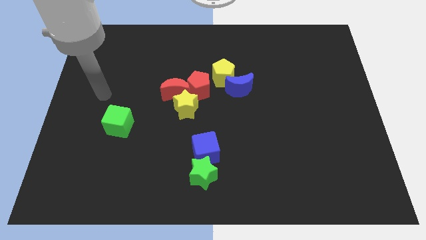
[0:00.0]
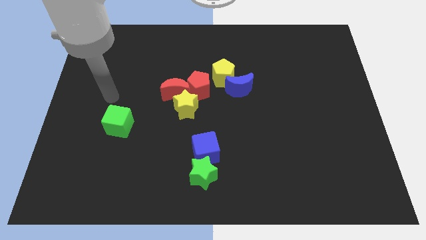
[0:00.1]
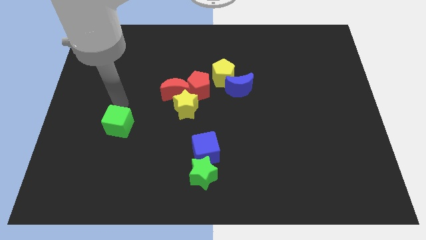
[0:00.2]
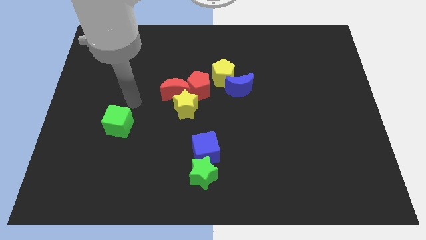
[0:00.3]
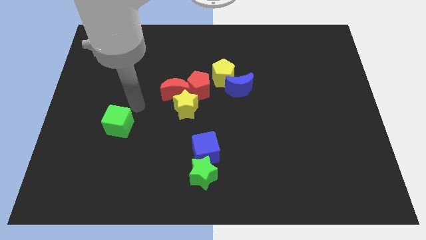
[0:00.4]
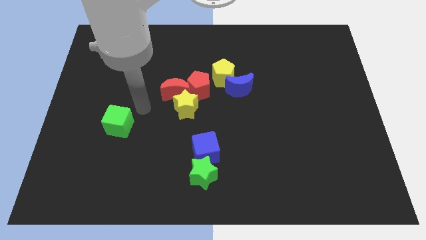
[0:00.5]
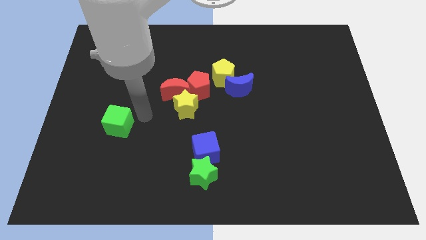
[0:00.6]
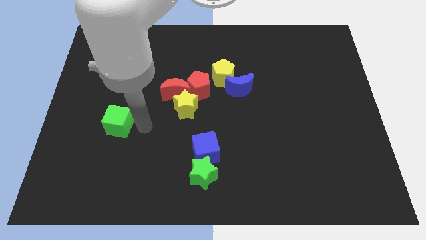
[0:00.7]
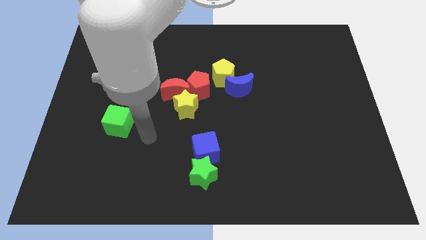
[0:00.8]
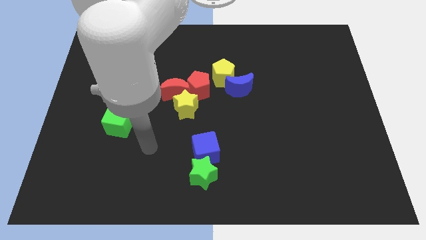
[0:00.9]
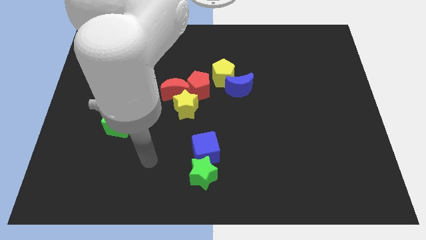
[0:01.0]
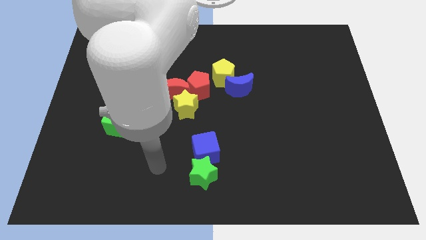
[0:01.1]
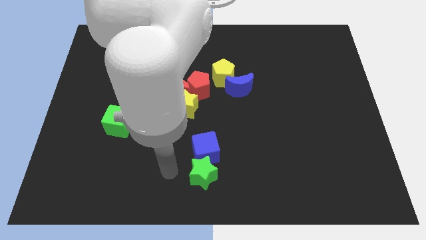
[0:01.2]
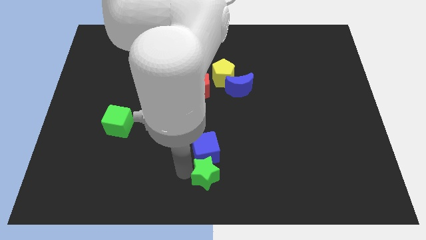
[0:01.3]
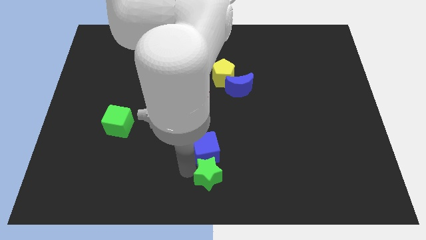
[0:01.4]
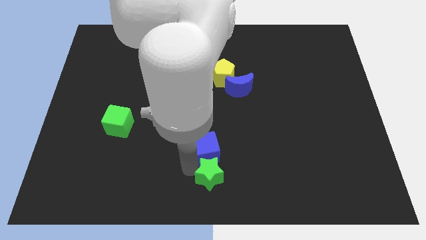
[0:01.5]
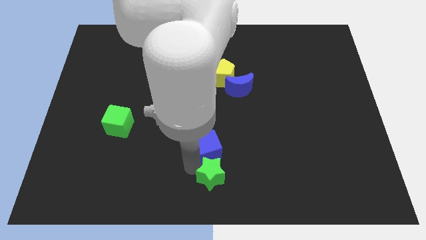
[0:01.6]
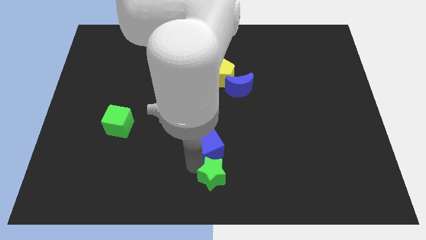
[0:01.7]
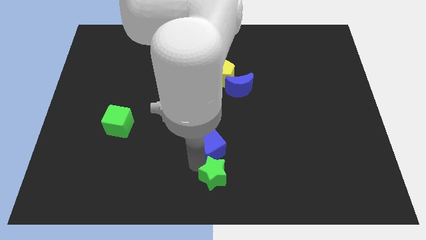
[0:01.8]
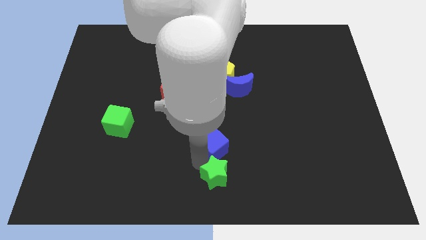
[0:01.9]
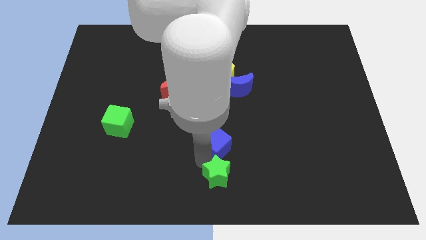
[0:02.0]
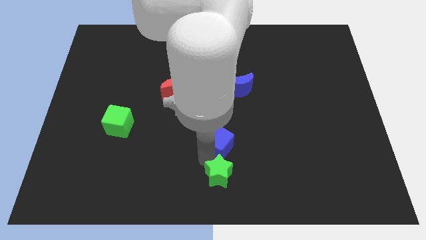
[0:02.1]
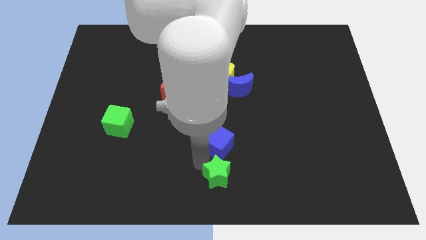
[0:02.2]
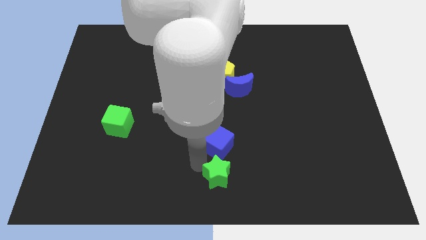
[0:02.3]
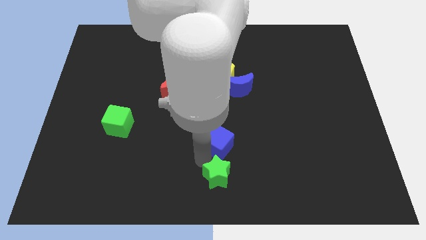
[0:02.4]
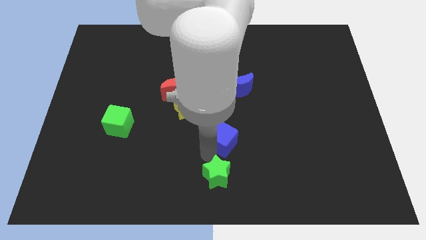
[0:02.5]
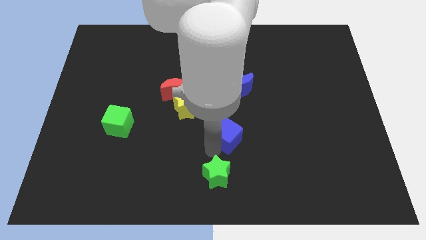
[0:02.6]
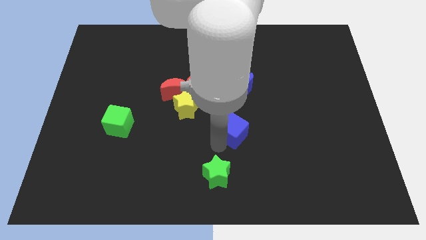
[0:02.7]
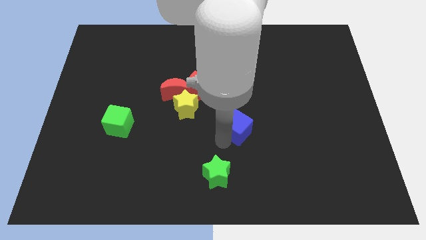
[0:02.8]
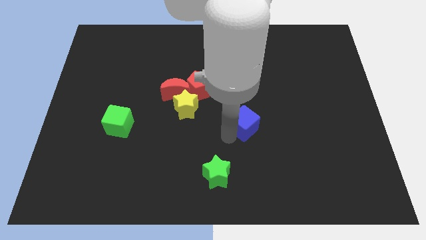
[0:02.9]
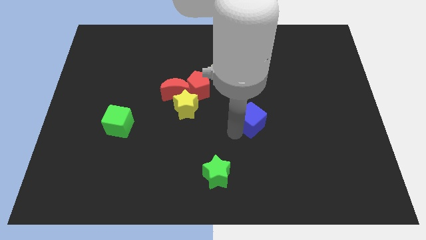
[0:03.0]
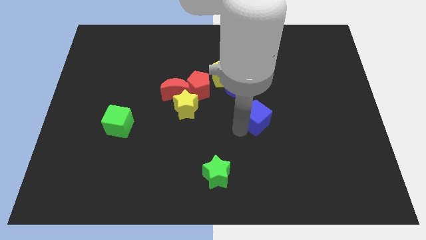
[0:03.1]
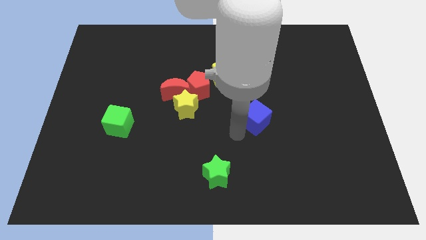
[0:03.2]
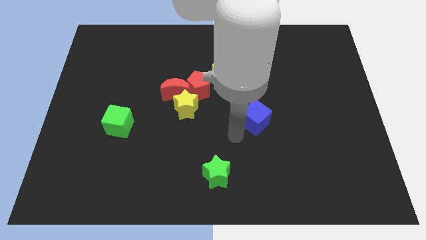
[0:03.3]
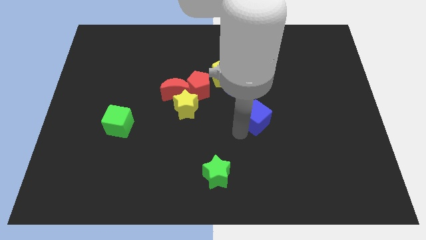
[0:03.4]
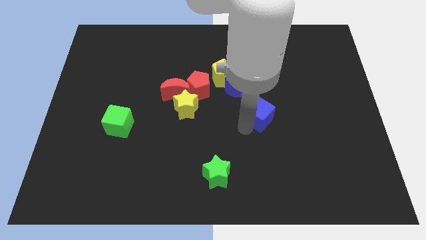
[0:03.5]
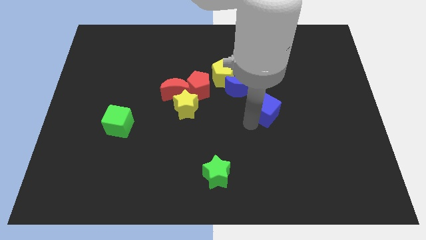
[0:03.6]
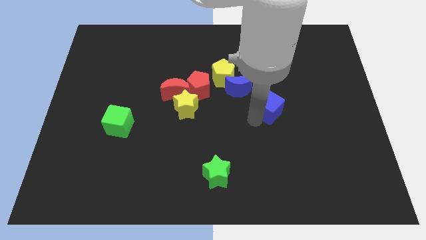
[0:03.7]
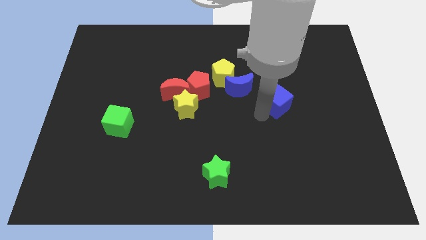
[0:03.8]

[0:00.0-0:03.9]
move the blue cube upwards and right diagonally

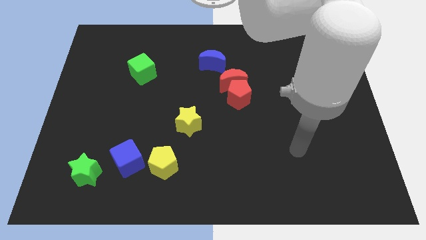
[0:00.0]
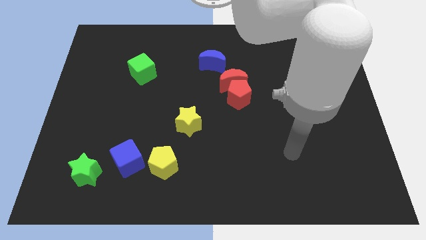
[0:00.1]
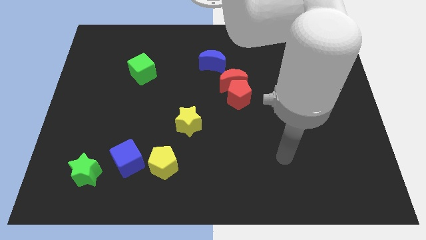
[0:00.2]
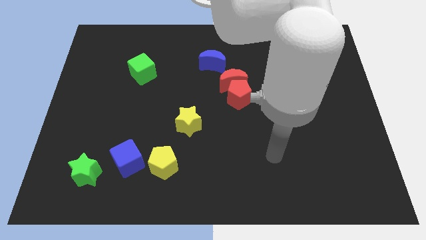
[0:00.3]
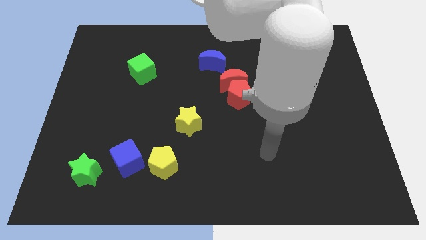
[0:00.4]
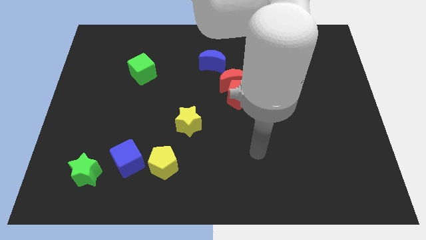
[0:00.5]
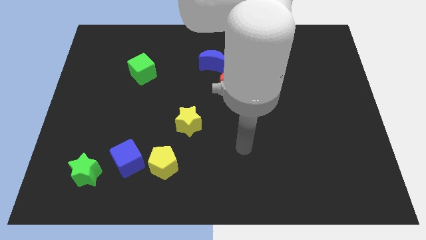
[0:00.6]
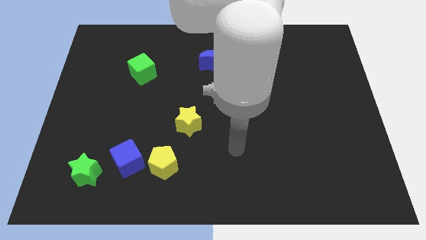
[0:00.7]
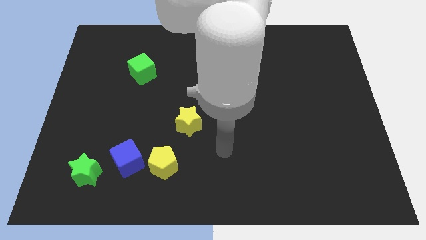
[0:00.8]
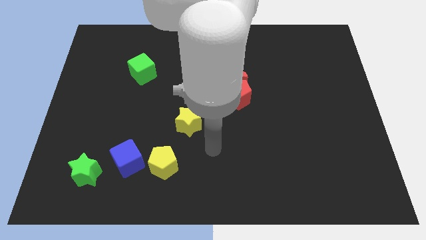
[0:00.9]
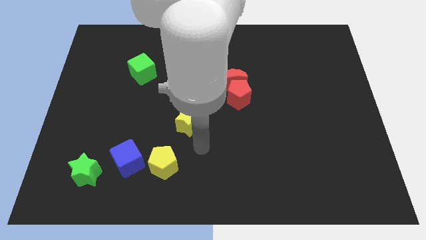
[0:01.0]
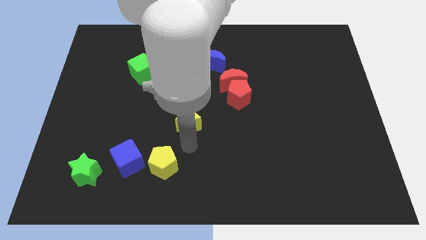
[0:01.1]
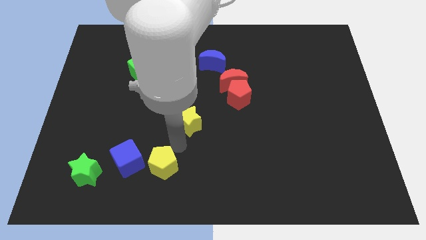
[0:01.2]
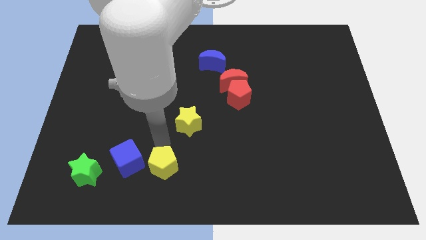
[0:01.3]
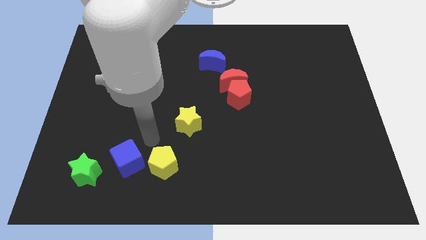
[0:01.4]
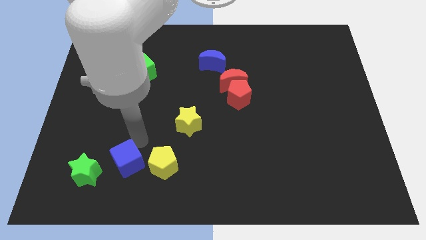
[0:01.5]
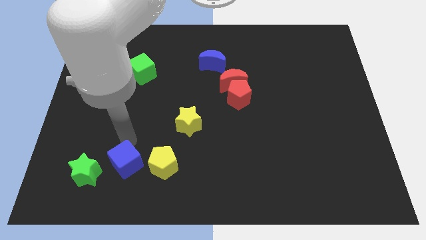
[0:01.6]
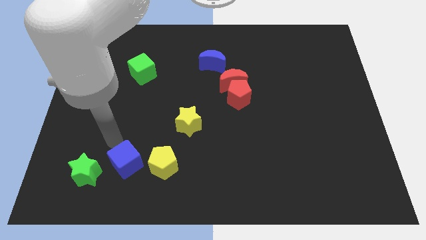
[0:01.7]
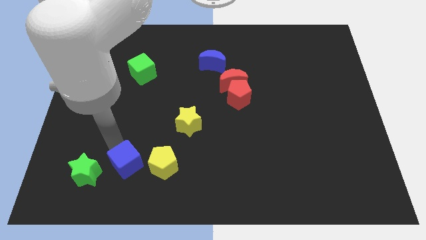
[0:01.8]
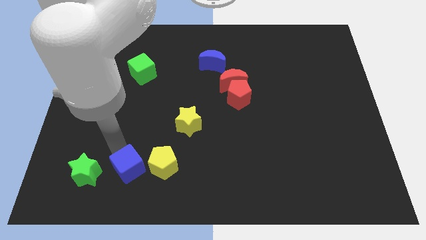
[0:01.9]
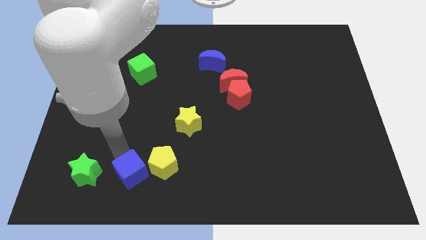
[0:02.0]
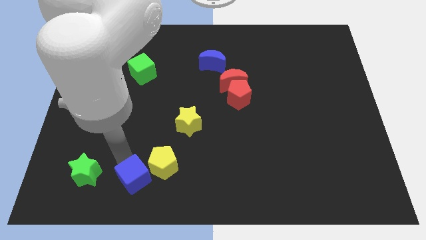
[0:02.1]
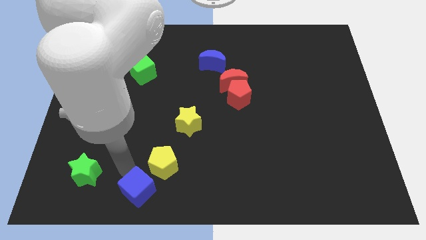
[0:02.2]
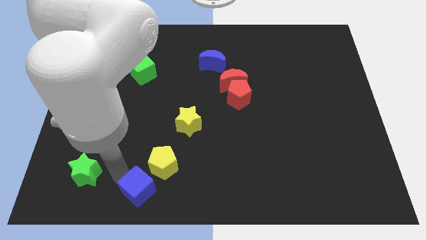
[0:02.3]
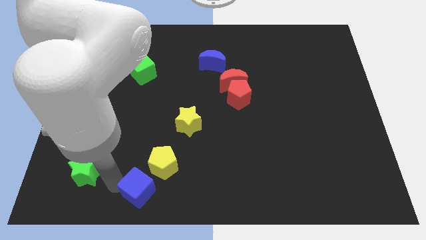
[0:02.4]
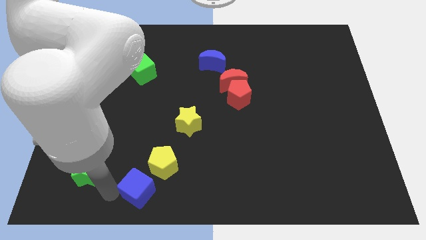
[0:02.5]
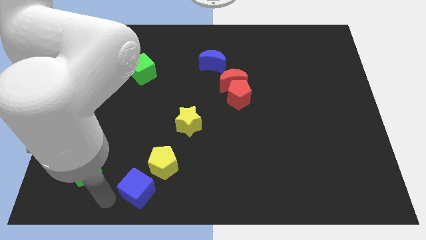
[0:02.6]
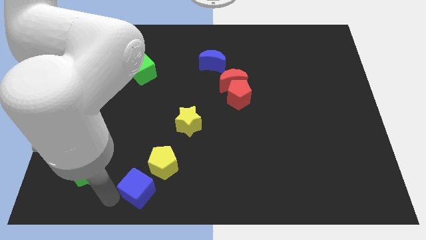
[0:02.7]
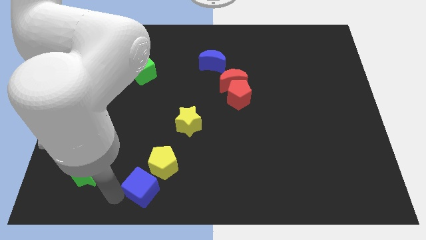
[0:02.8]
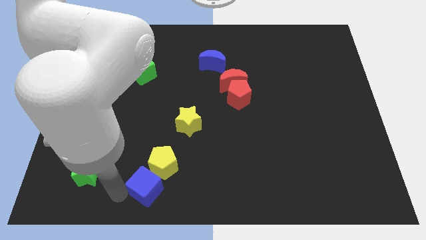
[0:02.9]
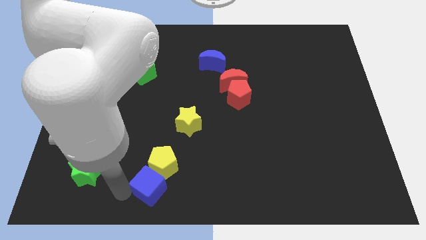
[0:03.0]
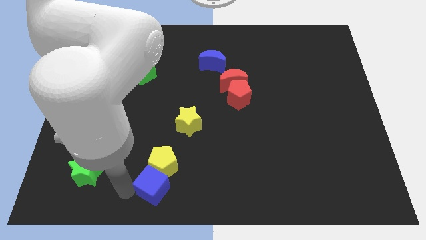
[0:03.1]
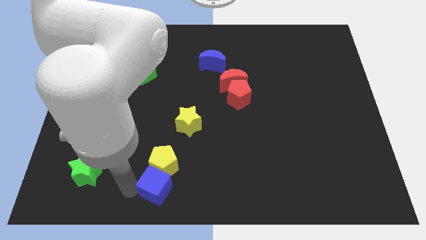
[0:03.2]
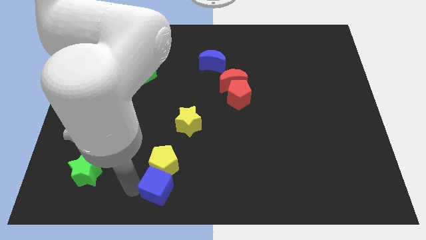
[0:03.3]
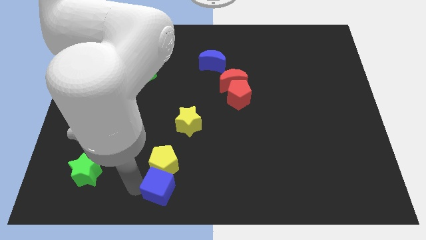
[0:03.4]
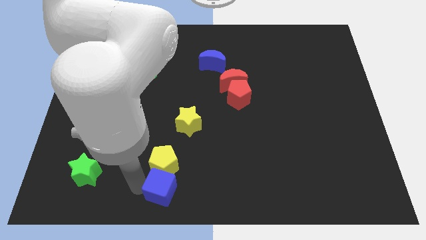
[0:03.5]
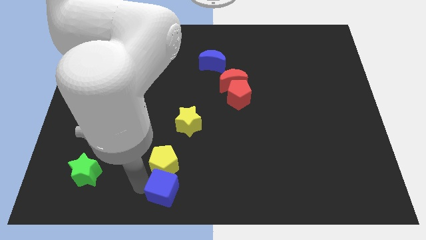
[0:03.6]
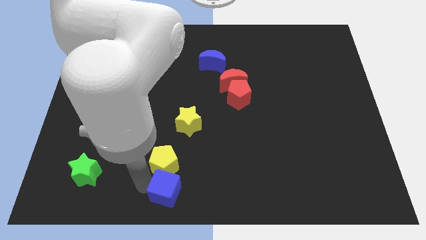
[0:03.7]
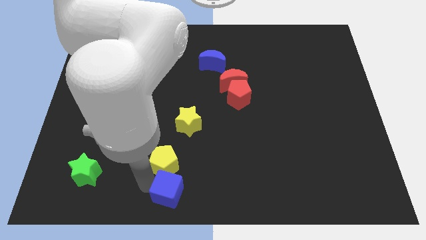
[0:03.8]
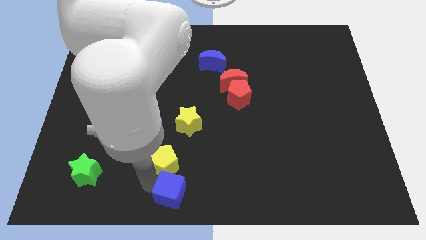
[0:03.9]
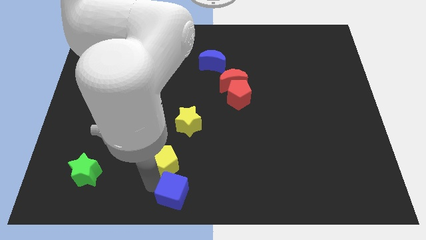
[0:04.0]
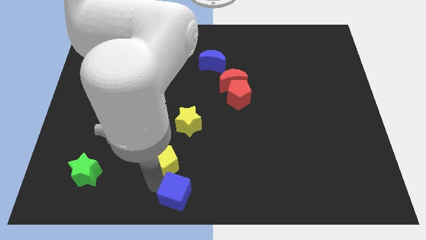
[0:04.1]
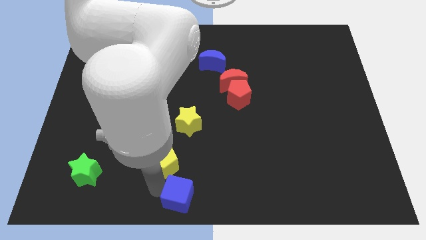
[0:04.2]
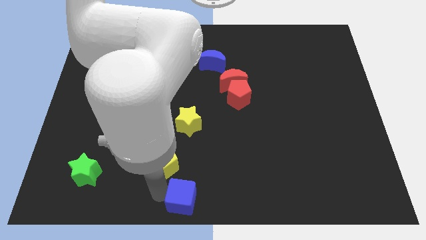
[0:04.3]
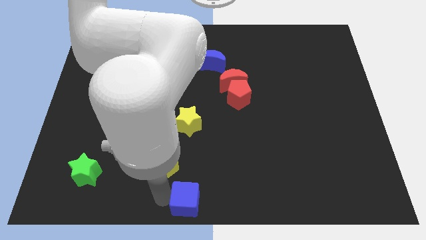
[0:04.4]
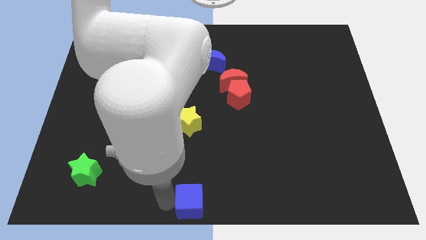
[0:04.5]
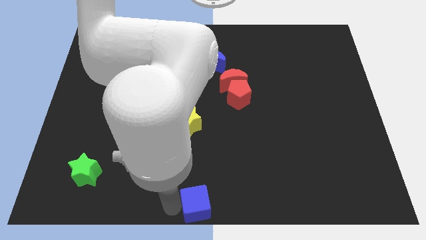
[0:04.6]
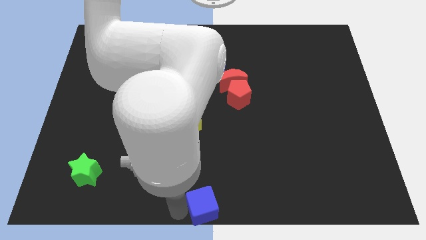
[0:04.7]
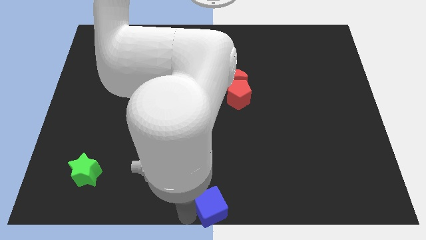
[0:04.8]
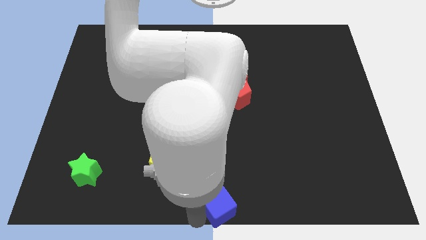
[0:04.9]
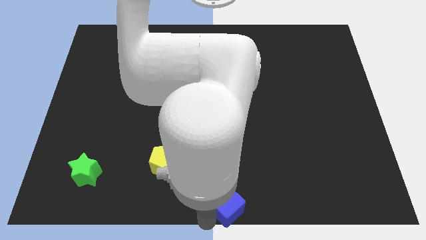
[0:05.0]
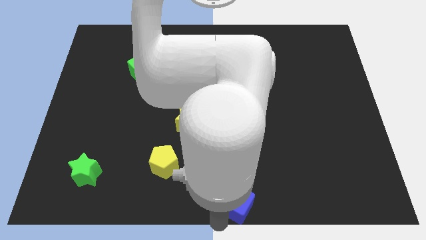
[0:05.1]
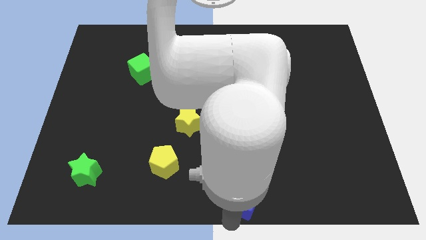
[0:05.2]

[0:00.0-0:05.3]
slide the blue cube right
